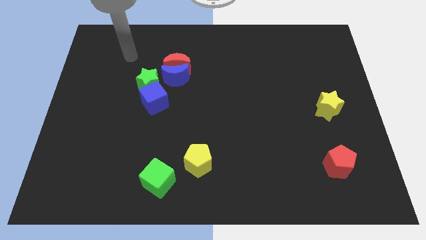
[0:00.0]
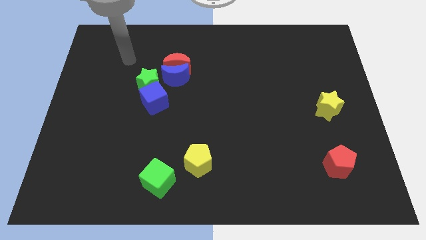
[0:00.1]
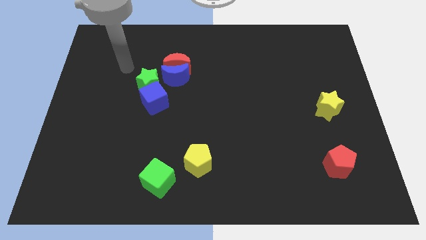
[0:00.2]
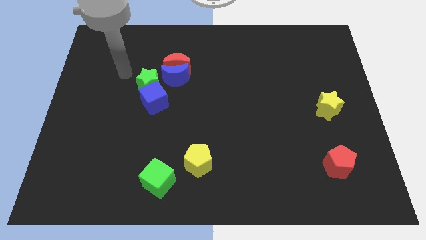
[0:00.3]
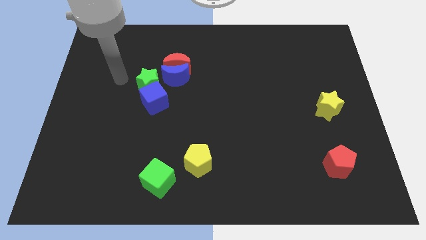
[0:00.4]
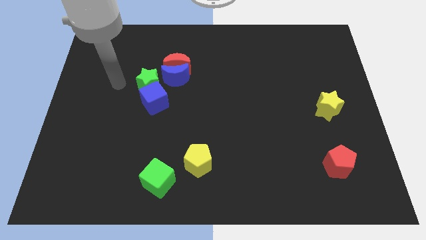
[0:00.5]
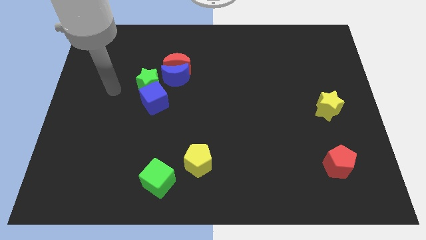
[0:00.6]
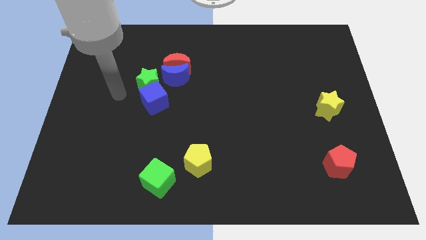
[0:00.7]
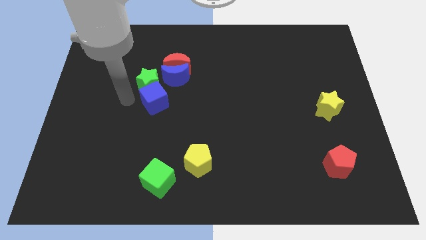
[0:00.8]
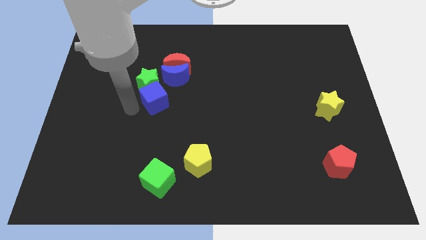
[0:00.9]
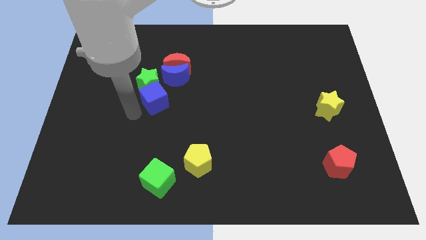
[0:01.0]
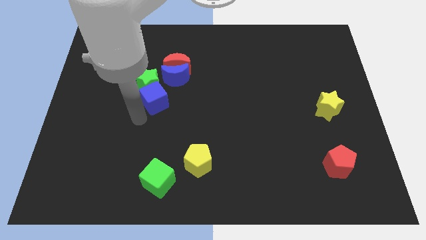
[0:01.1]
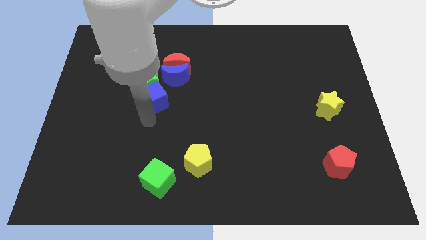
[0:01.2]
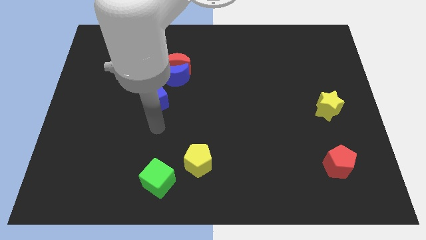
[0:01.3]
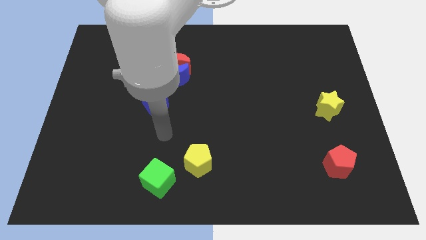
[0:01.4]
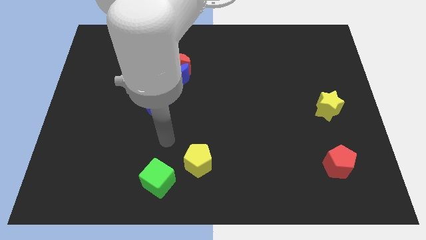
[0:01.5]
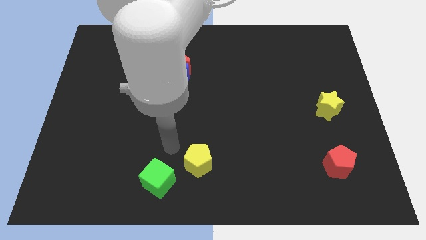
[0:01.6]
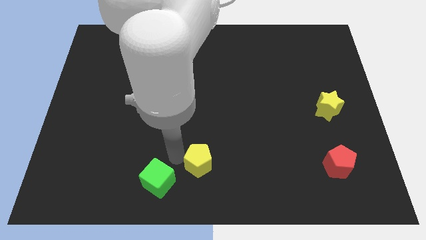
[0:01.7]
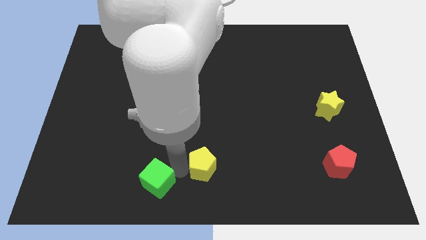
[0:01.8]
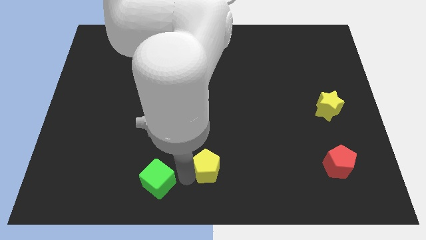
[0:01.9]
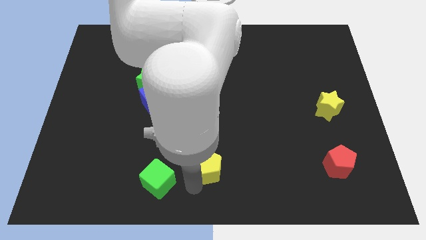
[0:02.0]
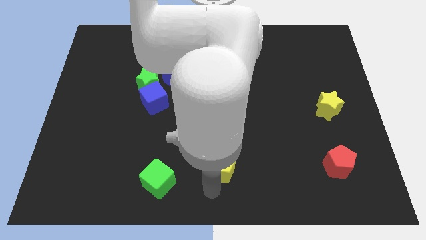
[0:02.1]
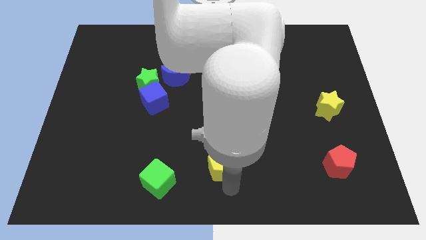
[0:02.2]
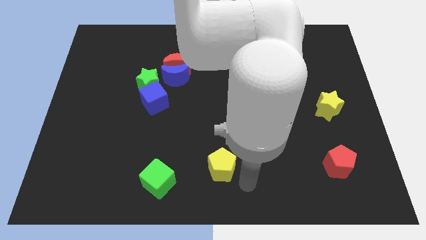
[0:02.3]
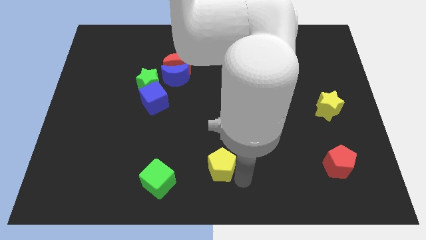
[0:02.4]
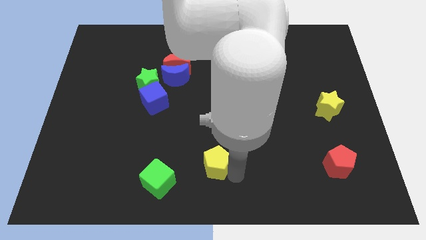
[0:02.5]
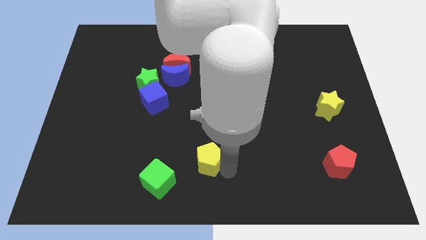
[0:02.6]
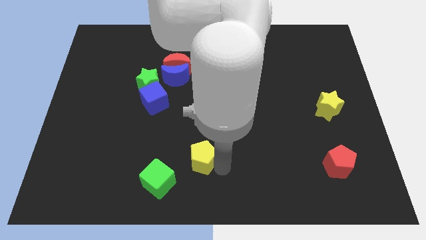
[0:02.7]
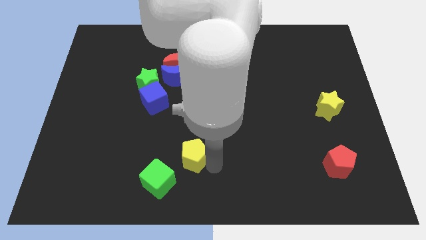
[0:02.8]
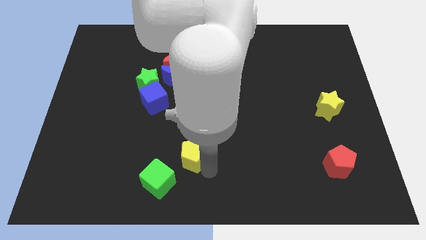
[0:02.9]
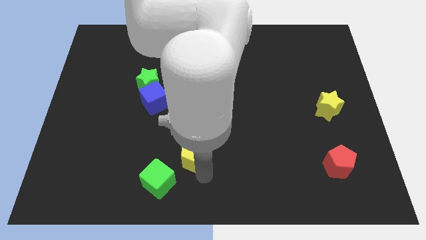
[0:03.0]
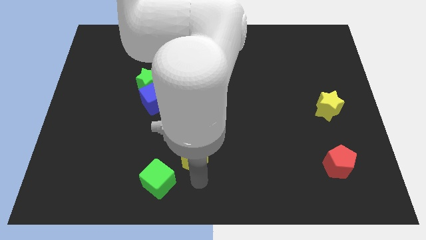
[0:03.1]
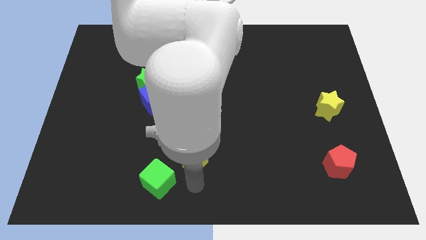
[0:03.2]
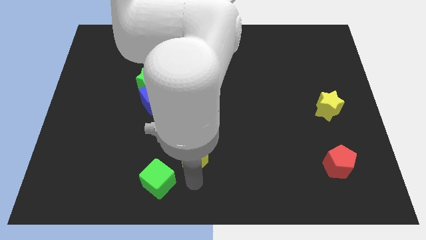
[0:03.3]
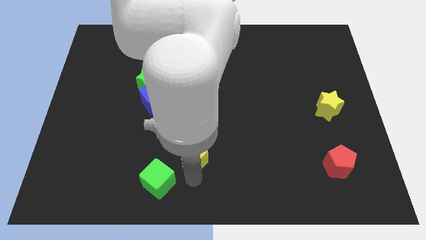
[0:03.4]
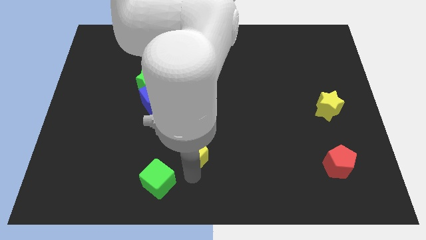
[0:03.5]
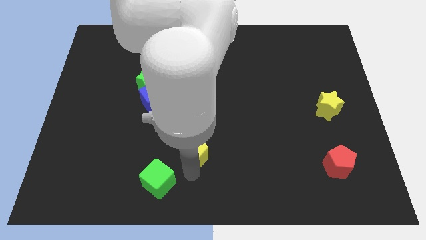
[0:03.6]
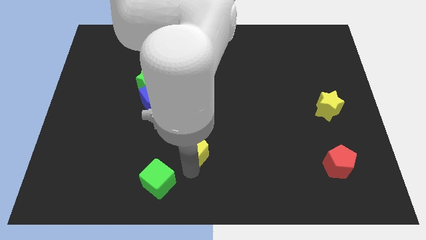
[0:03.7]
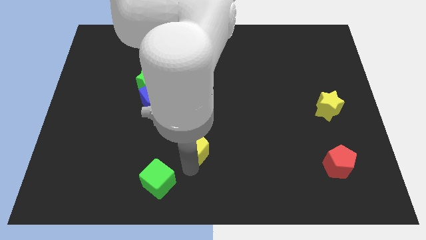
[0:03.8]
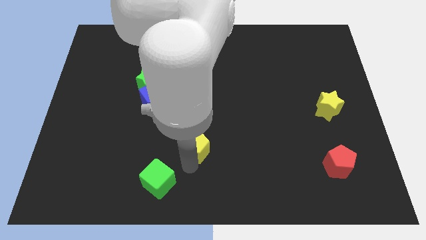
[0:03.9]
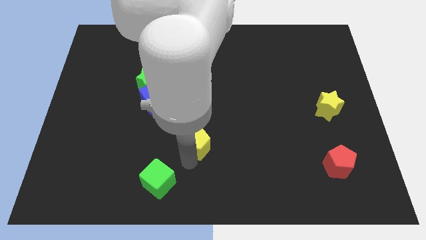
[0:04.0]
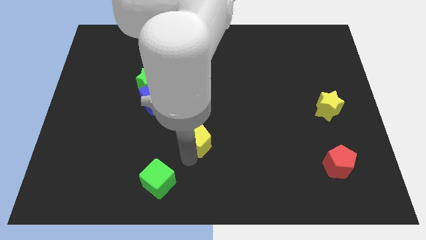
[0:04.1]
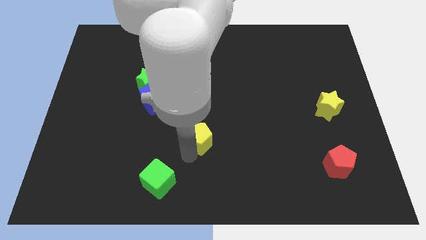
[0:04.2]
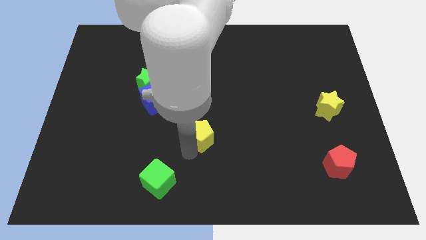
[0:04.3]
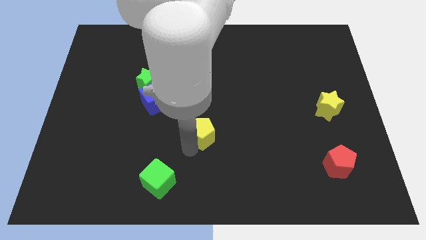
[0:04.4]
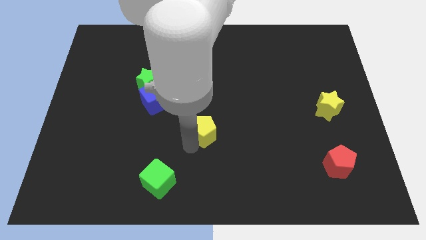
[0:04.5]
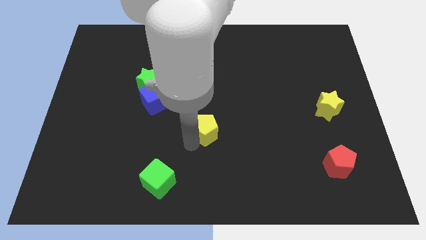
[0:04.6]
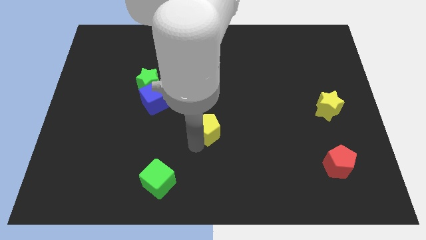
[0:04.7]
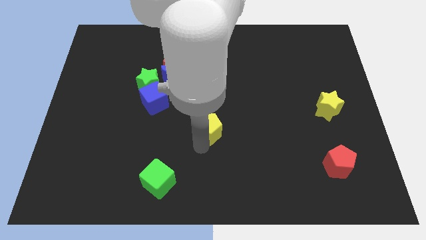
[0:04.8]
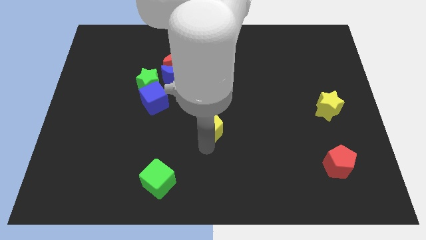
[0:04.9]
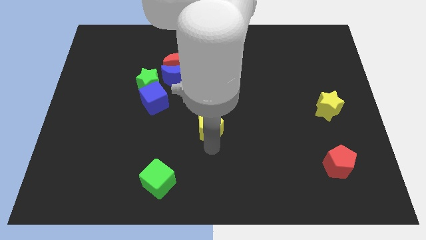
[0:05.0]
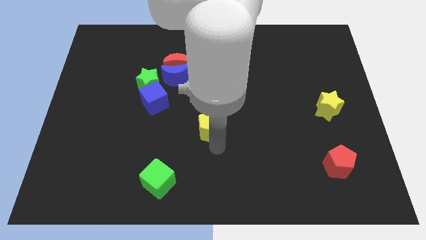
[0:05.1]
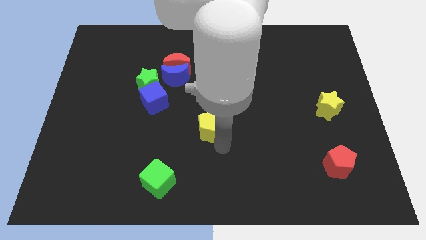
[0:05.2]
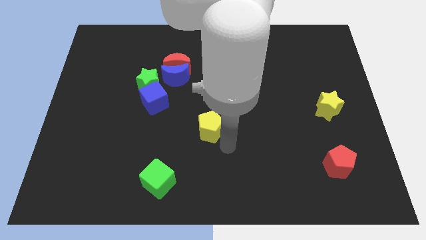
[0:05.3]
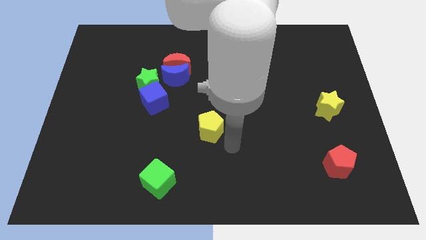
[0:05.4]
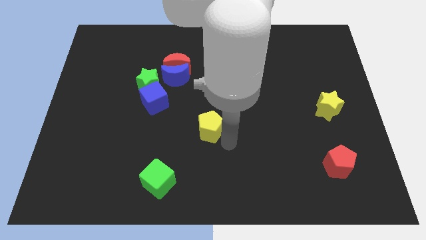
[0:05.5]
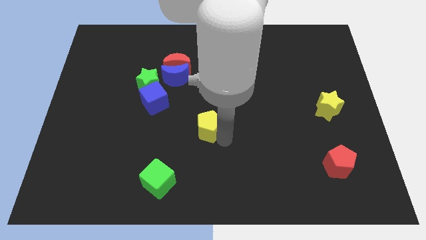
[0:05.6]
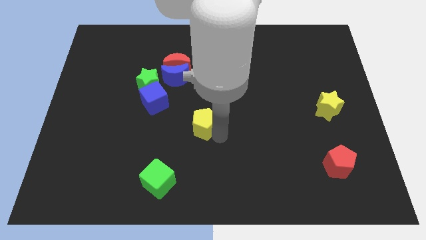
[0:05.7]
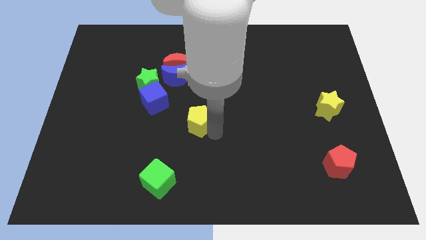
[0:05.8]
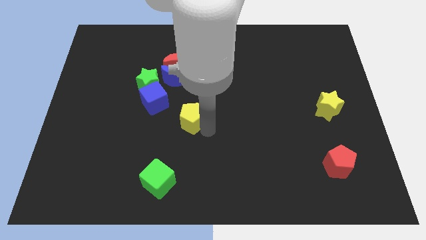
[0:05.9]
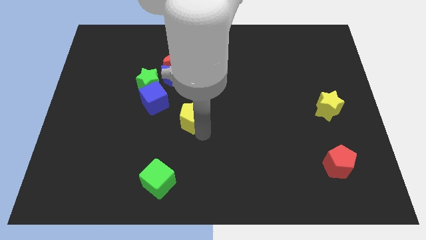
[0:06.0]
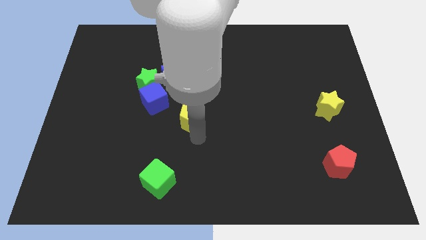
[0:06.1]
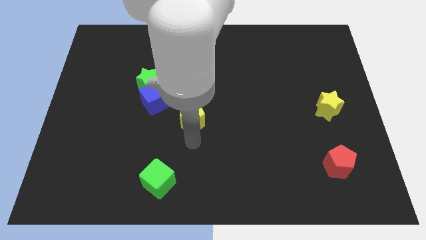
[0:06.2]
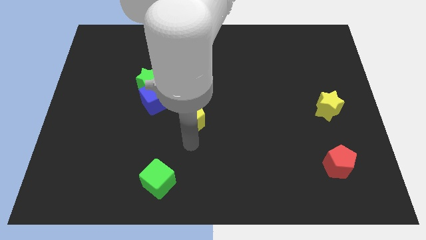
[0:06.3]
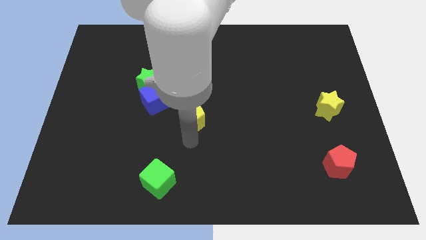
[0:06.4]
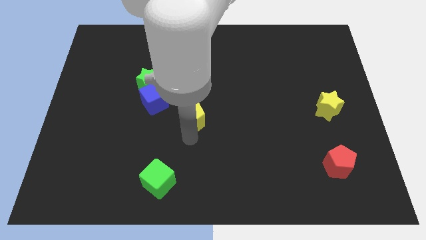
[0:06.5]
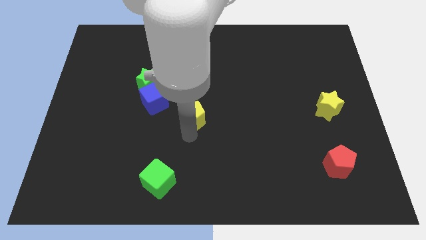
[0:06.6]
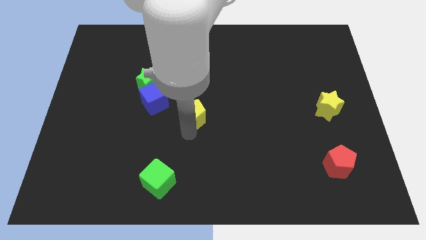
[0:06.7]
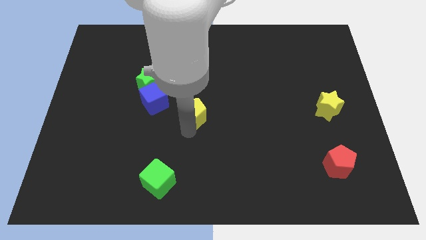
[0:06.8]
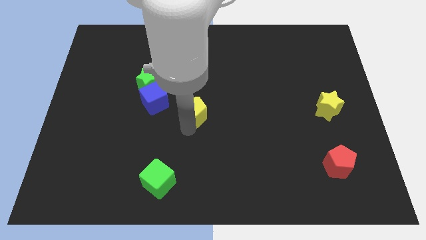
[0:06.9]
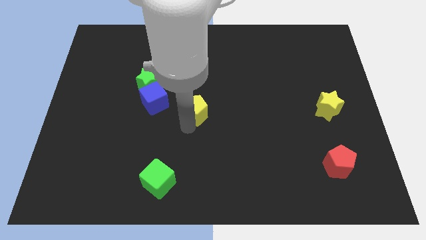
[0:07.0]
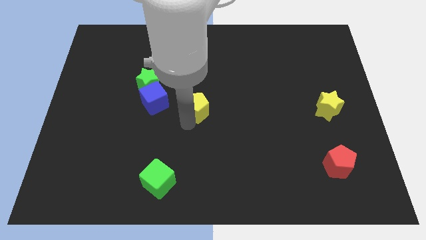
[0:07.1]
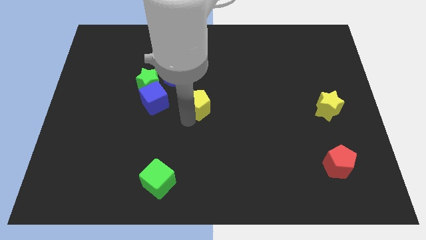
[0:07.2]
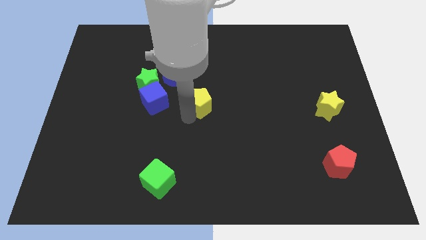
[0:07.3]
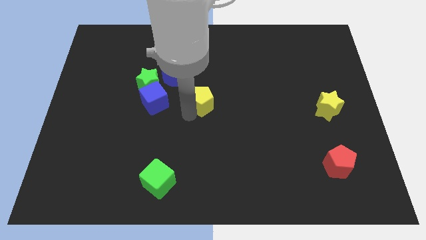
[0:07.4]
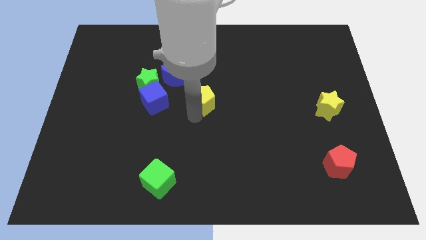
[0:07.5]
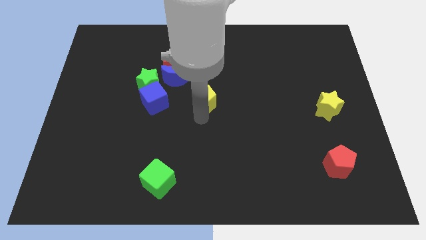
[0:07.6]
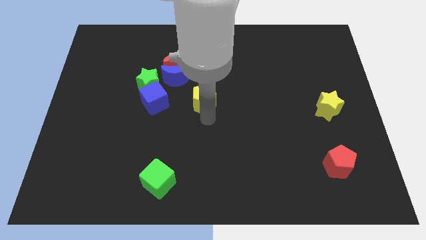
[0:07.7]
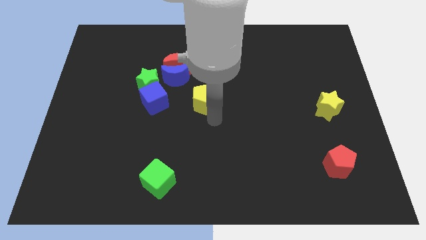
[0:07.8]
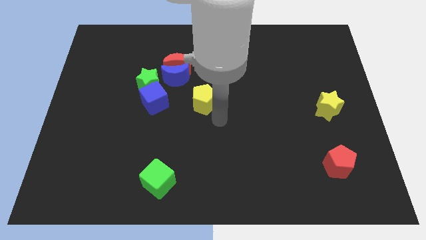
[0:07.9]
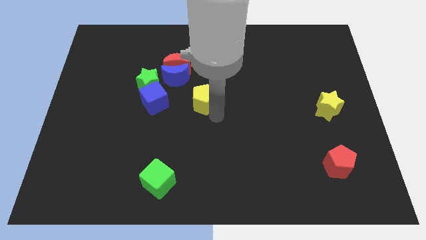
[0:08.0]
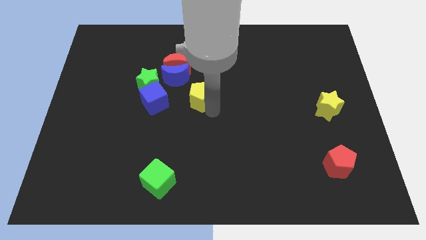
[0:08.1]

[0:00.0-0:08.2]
put the yellow pentagon just right of the green star
